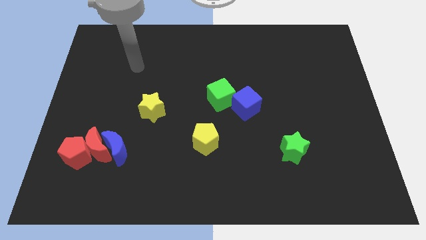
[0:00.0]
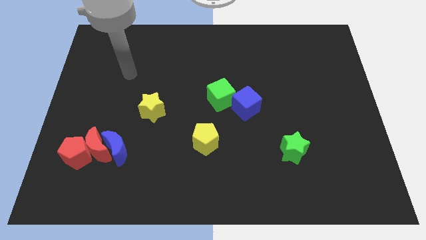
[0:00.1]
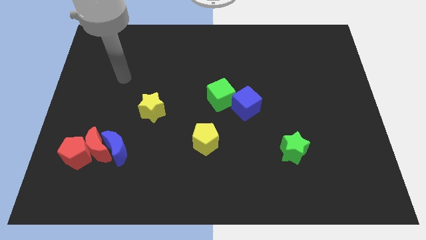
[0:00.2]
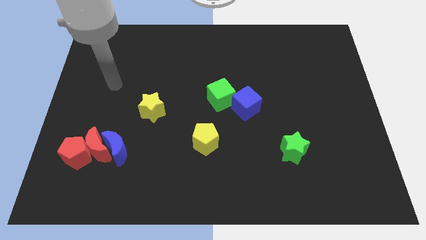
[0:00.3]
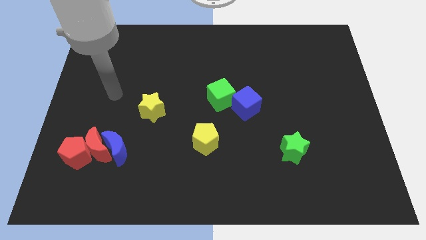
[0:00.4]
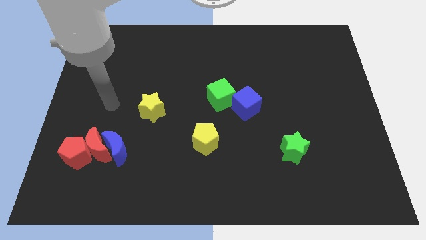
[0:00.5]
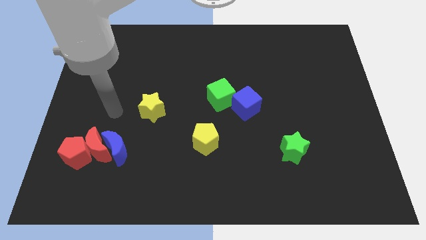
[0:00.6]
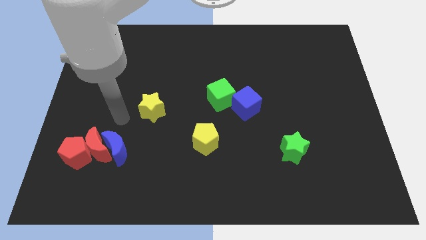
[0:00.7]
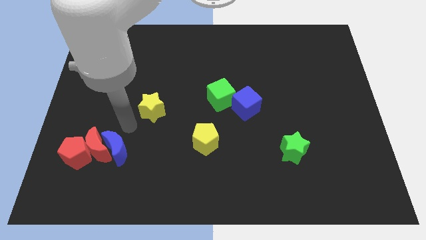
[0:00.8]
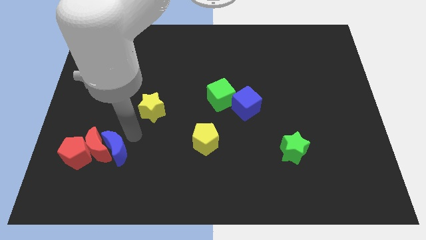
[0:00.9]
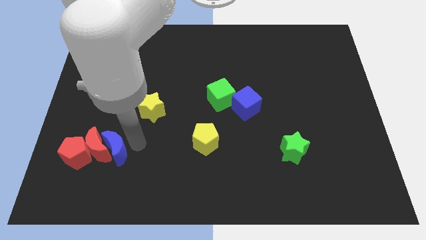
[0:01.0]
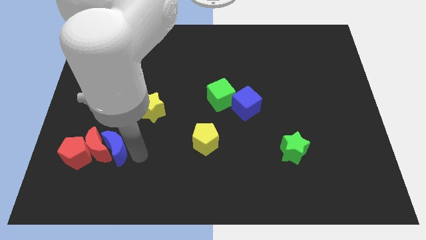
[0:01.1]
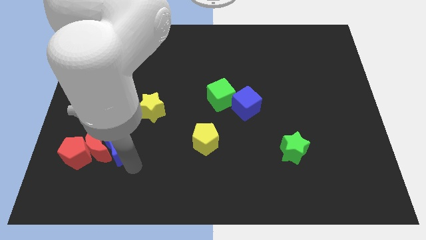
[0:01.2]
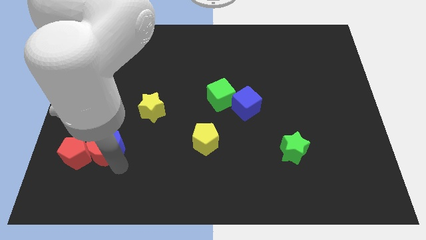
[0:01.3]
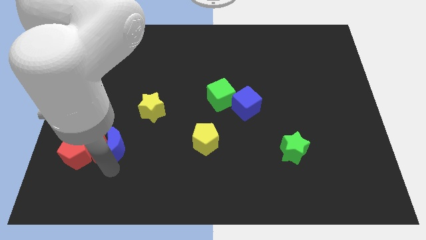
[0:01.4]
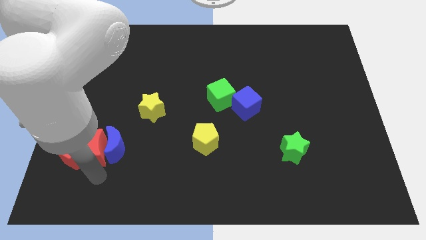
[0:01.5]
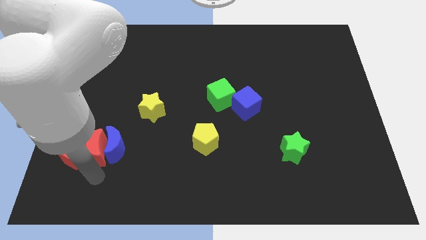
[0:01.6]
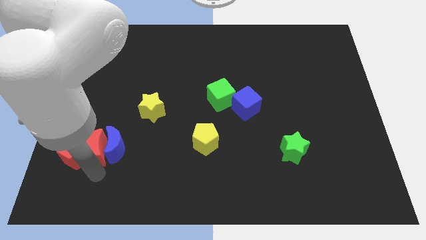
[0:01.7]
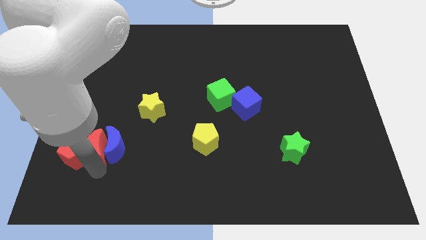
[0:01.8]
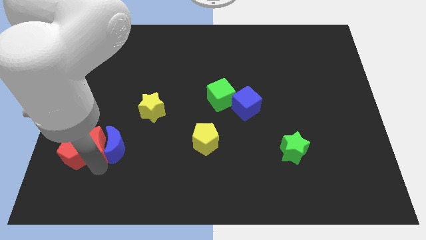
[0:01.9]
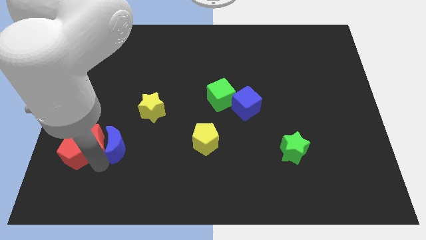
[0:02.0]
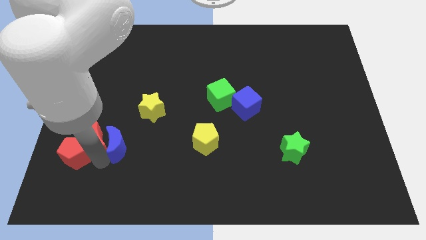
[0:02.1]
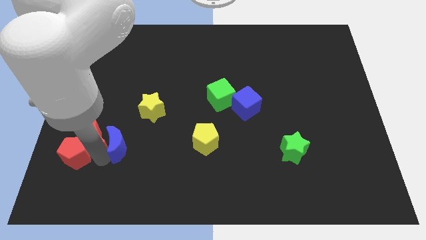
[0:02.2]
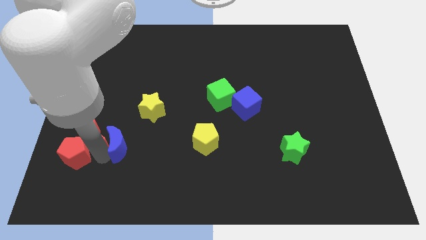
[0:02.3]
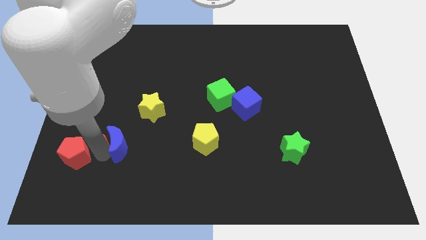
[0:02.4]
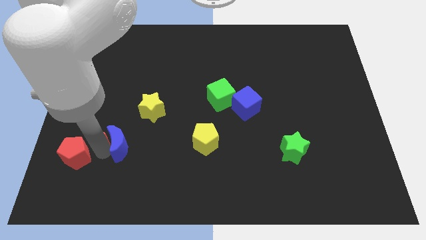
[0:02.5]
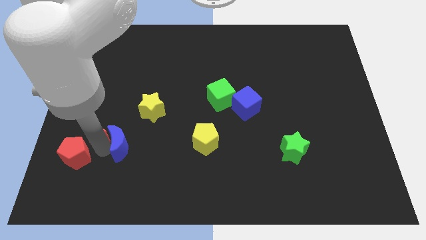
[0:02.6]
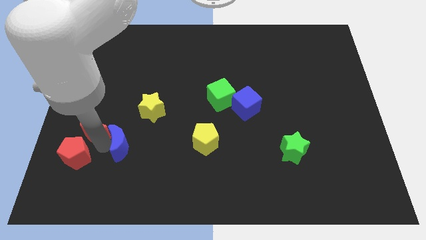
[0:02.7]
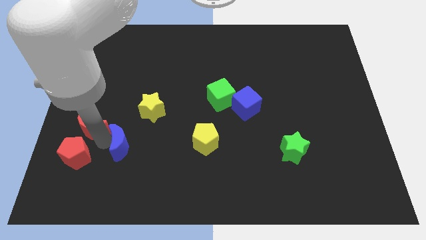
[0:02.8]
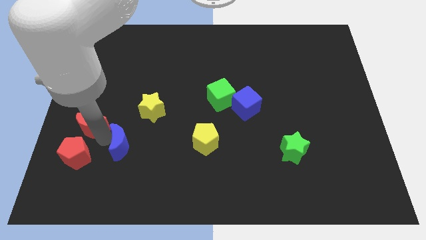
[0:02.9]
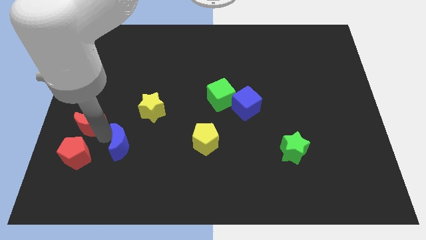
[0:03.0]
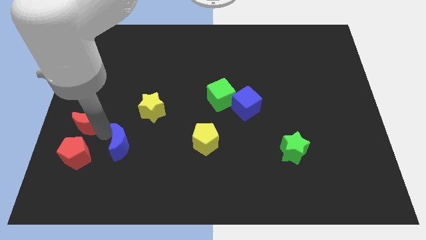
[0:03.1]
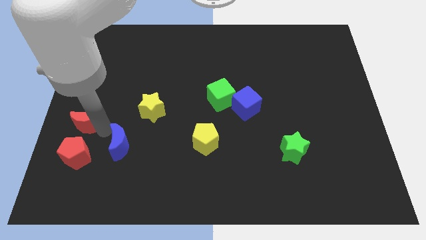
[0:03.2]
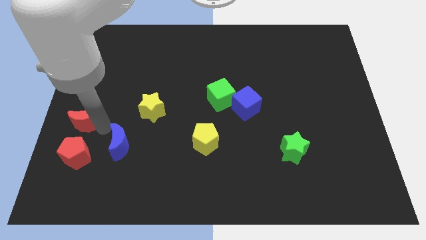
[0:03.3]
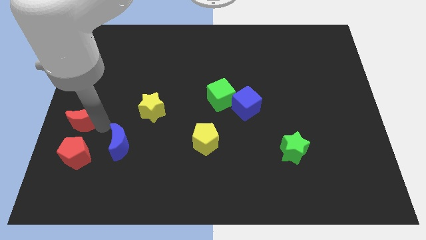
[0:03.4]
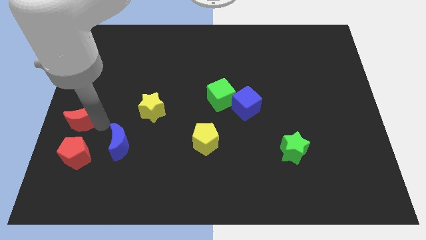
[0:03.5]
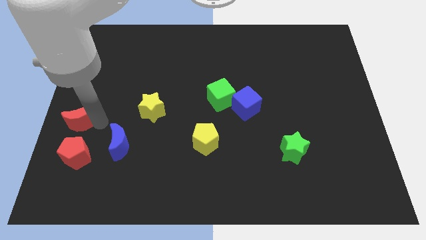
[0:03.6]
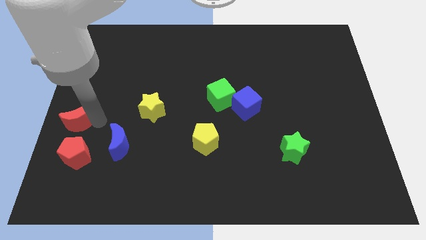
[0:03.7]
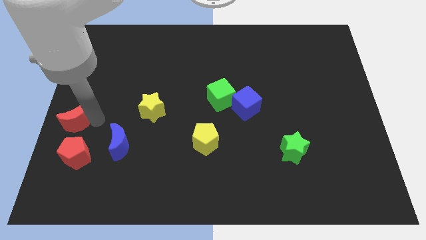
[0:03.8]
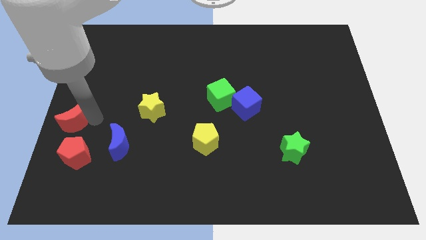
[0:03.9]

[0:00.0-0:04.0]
move the red moon away from the blue moon and red pentagon

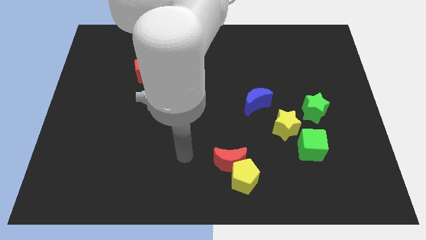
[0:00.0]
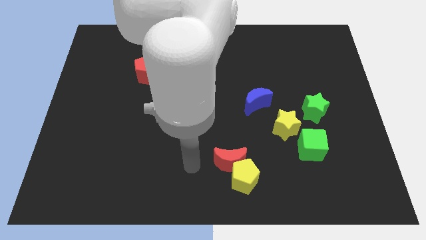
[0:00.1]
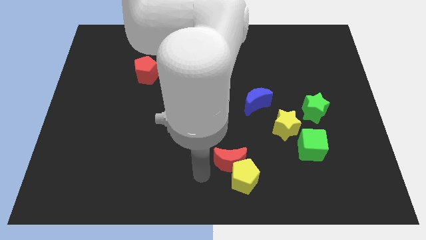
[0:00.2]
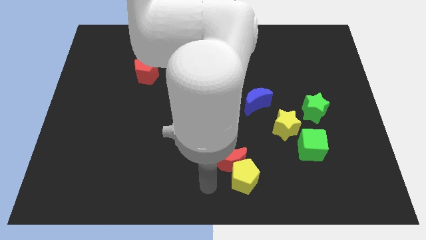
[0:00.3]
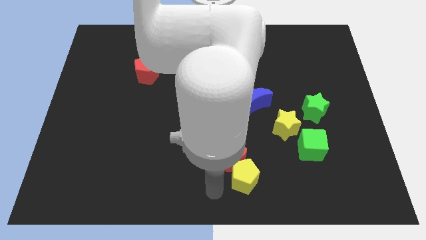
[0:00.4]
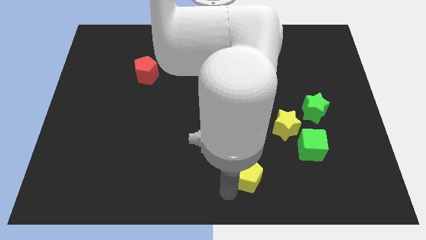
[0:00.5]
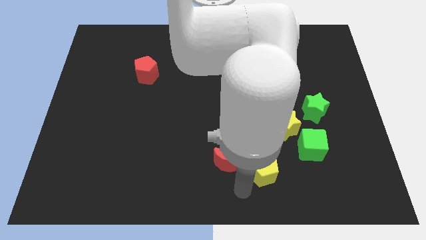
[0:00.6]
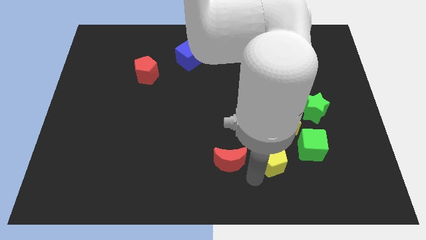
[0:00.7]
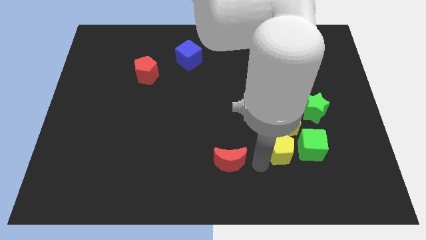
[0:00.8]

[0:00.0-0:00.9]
move the red moon away from the yellow pentagon

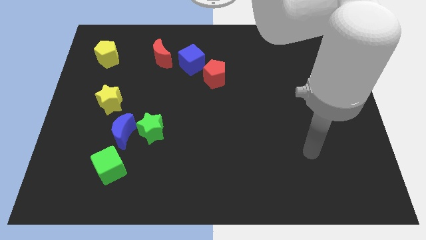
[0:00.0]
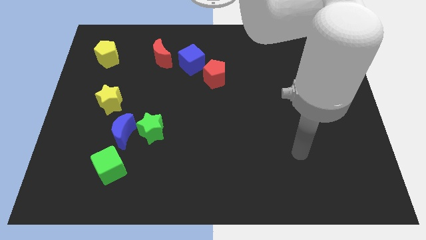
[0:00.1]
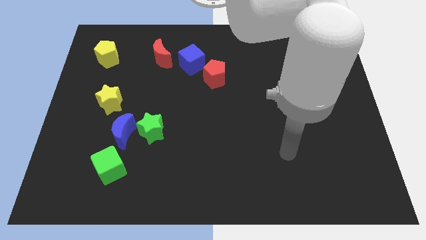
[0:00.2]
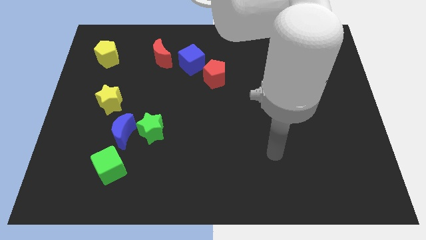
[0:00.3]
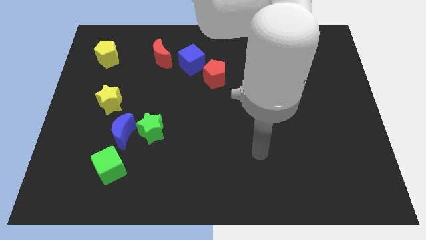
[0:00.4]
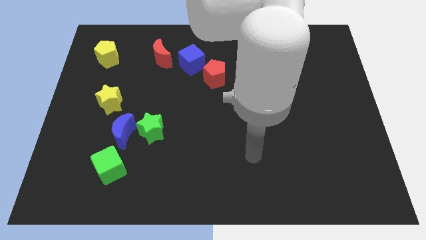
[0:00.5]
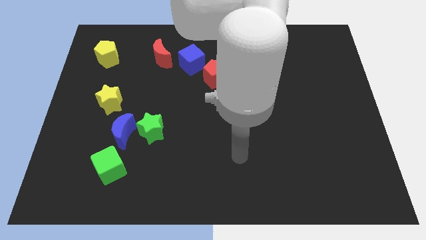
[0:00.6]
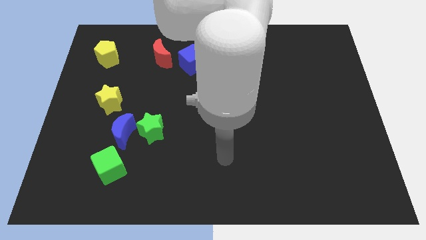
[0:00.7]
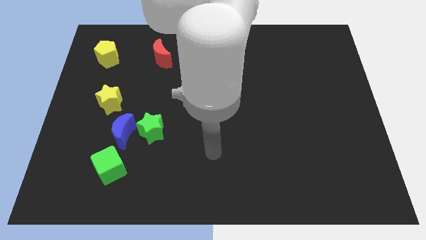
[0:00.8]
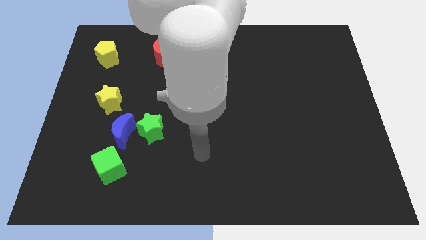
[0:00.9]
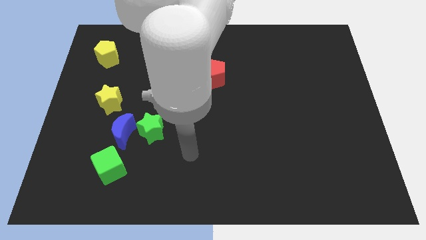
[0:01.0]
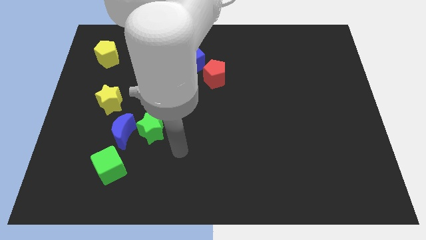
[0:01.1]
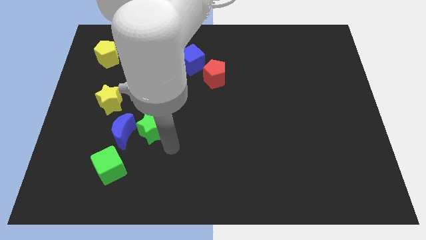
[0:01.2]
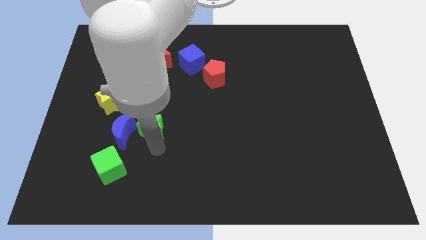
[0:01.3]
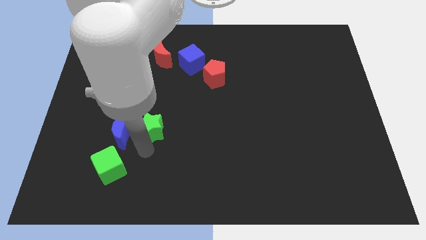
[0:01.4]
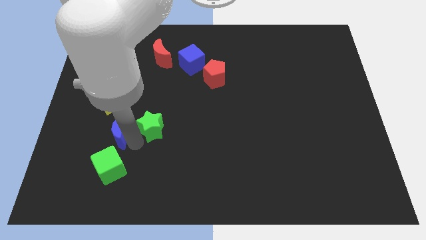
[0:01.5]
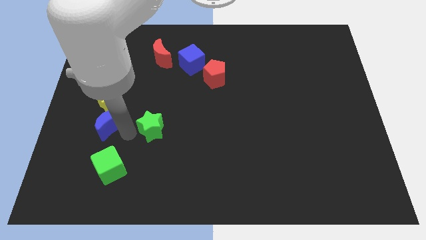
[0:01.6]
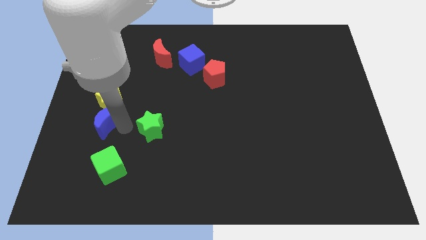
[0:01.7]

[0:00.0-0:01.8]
separate the green star from the blue moon

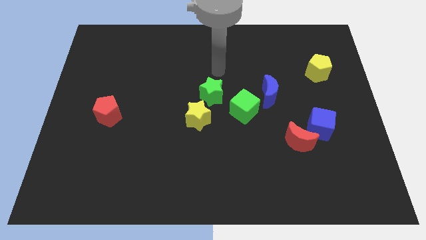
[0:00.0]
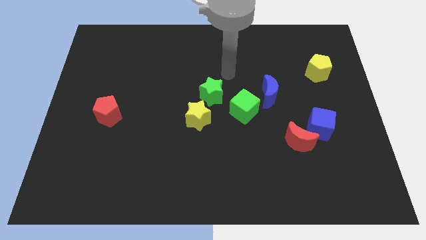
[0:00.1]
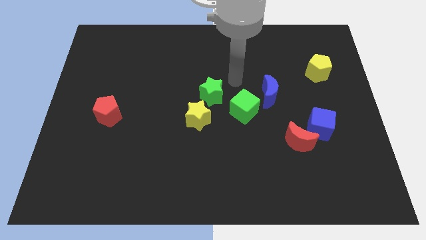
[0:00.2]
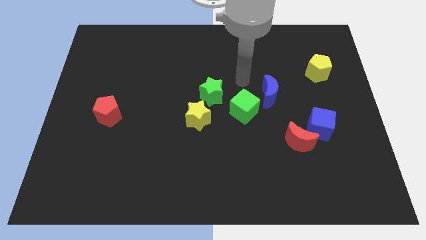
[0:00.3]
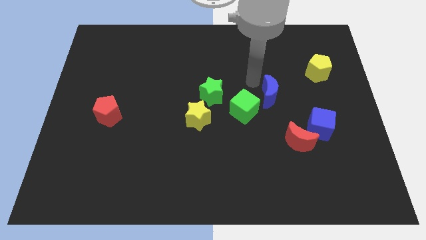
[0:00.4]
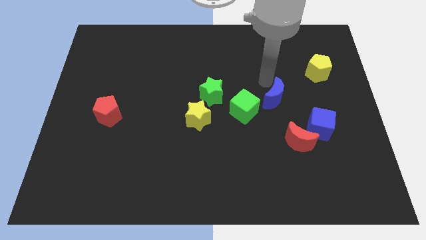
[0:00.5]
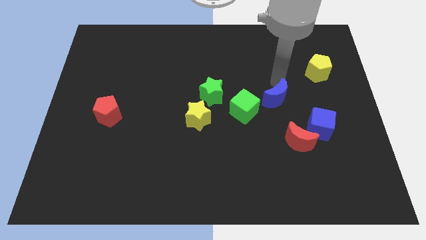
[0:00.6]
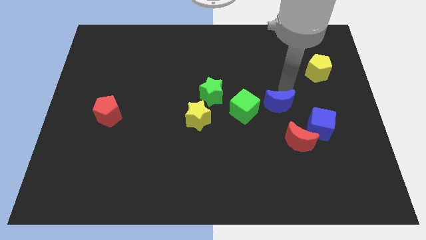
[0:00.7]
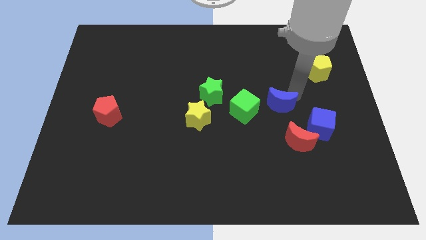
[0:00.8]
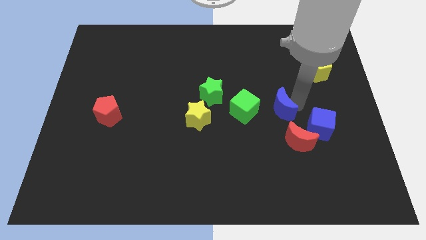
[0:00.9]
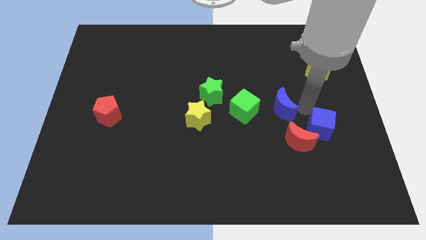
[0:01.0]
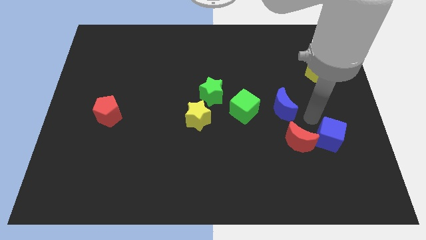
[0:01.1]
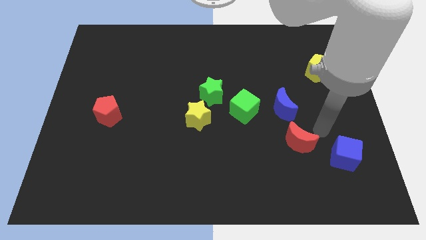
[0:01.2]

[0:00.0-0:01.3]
separate the red moon from the blue cube

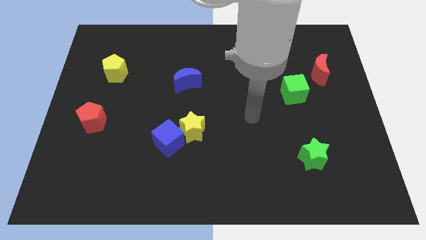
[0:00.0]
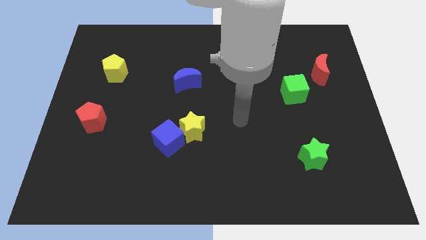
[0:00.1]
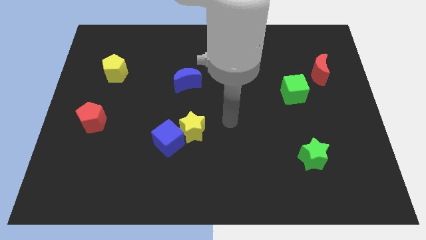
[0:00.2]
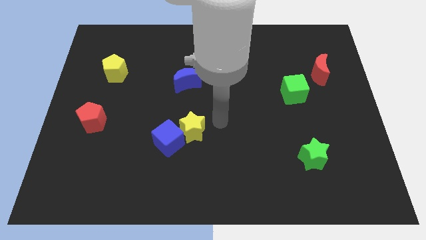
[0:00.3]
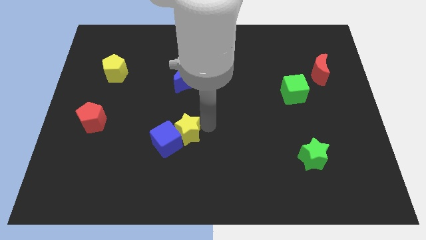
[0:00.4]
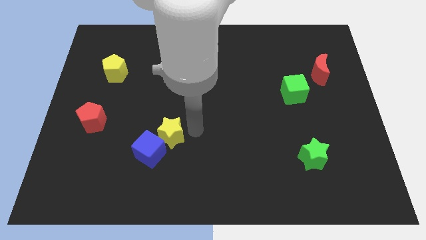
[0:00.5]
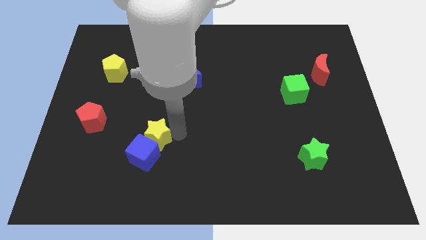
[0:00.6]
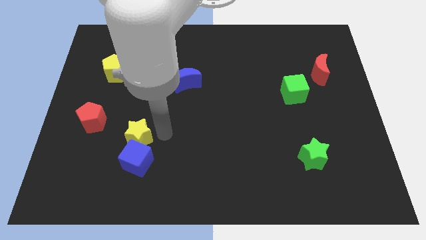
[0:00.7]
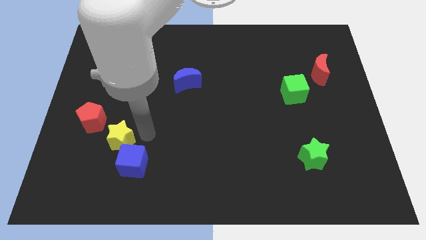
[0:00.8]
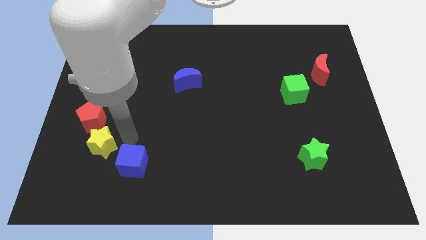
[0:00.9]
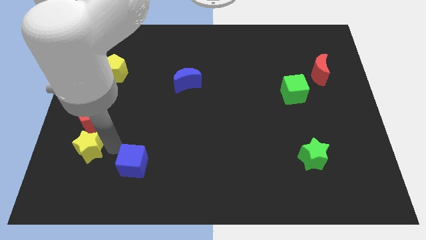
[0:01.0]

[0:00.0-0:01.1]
separate the blue cube from the yellow star

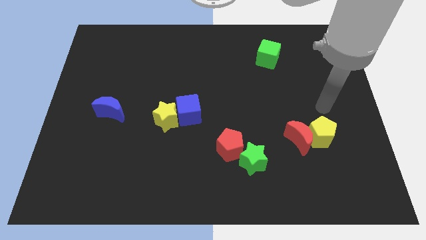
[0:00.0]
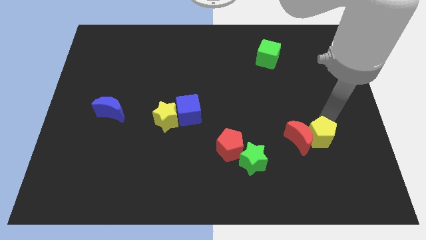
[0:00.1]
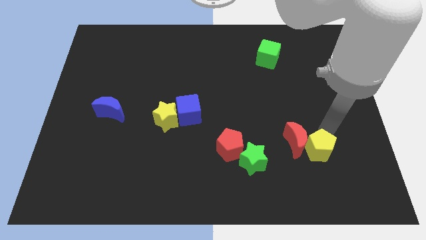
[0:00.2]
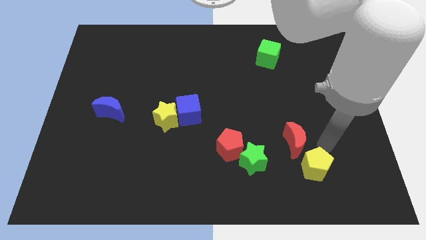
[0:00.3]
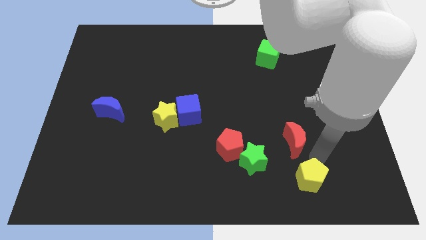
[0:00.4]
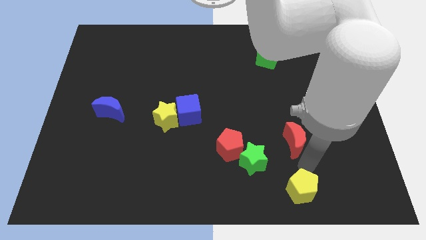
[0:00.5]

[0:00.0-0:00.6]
pull the red moon apart from the yellow pentagon
